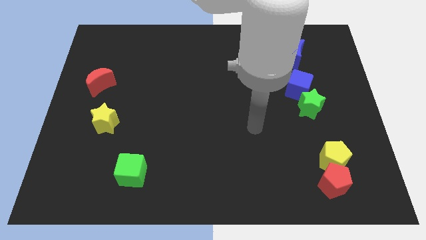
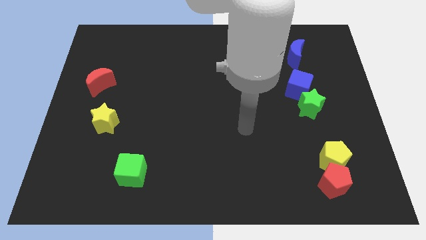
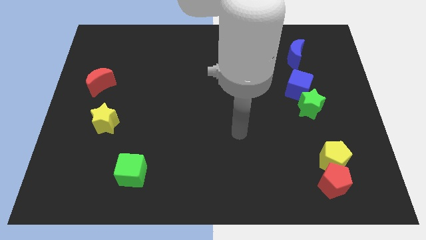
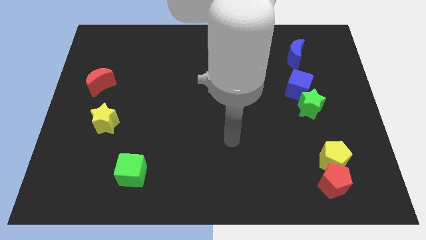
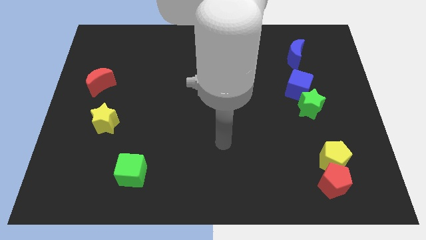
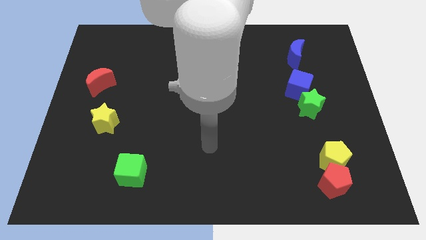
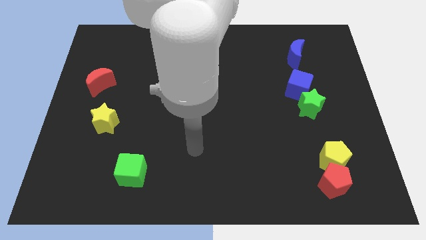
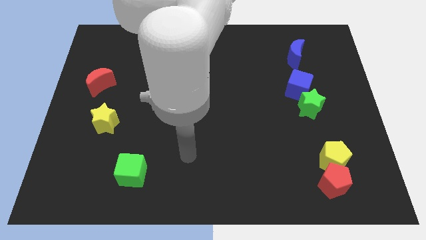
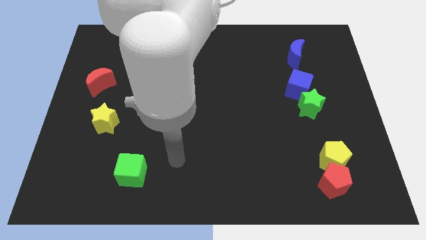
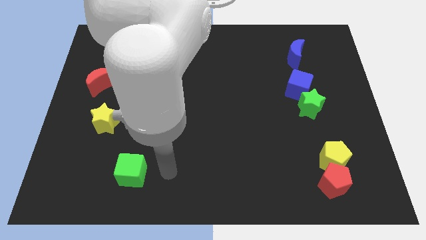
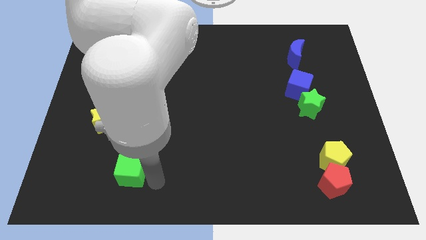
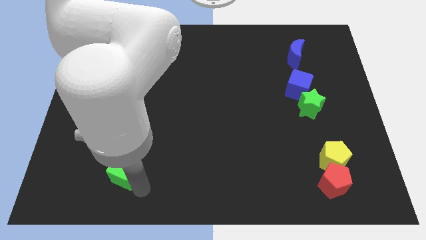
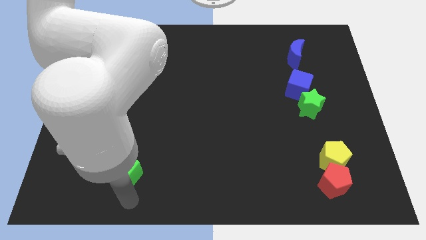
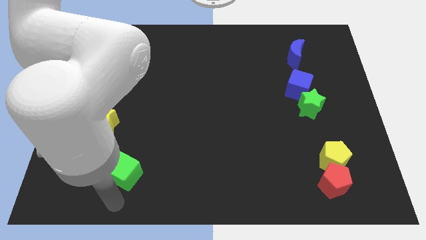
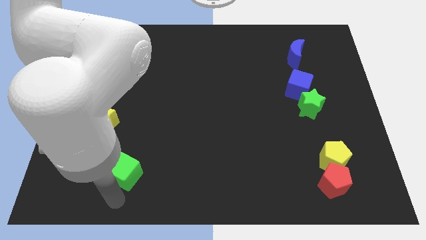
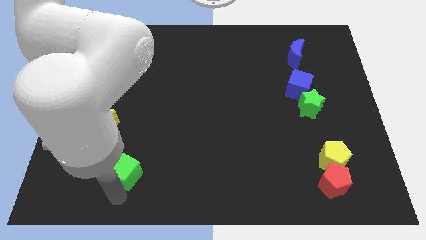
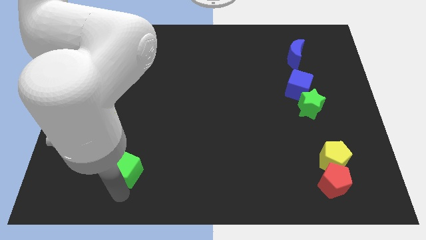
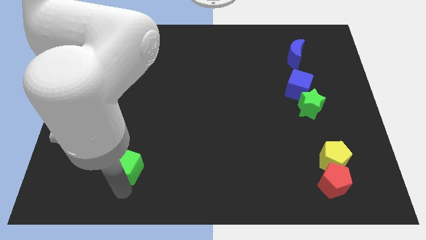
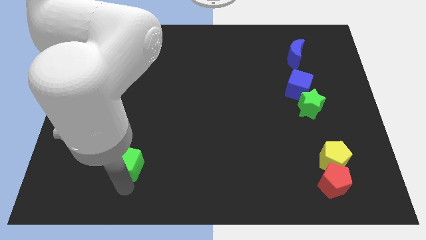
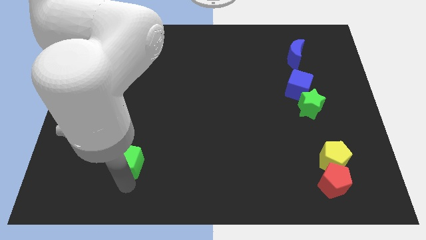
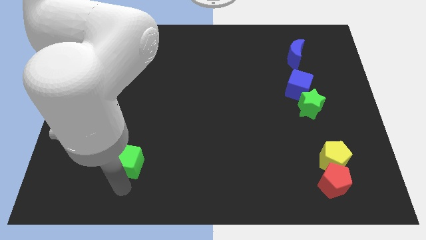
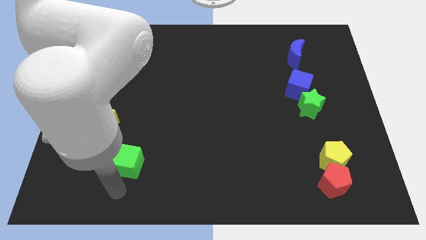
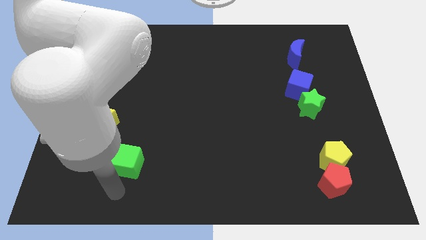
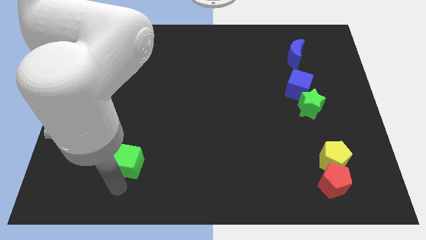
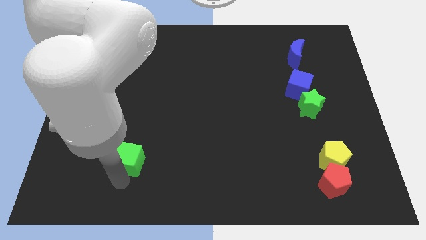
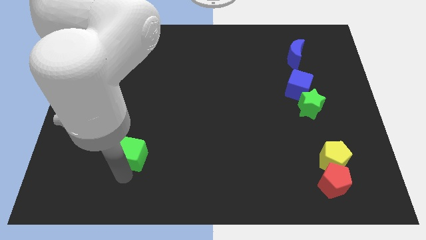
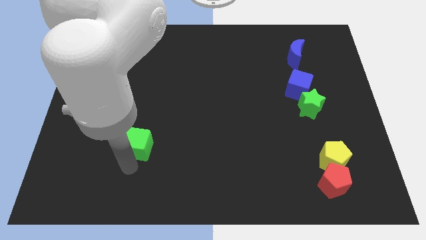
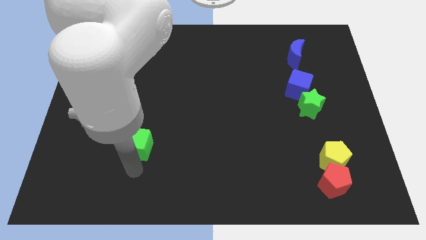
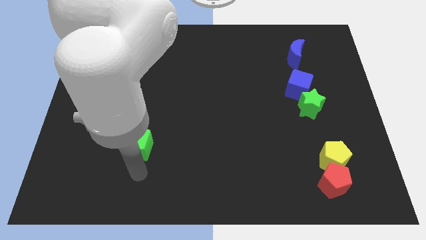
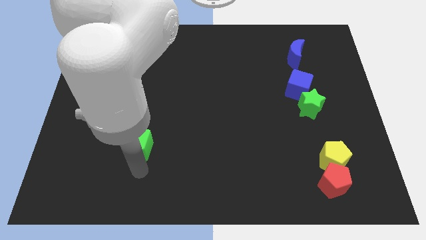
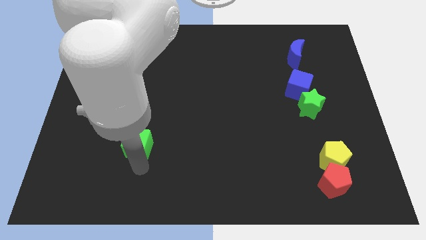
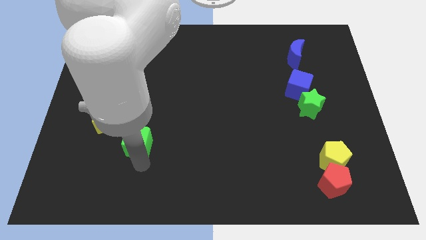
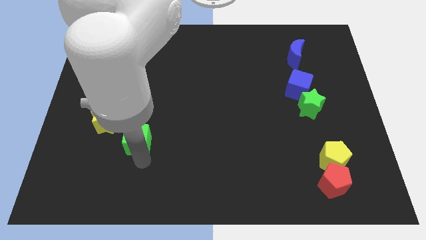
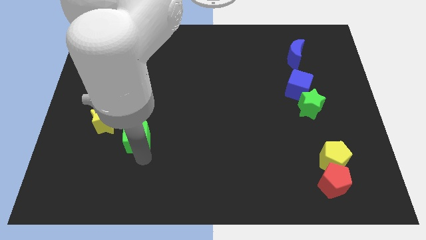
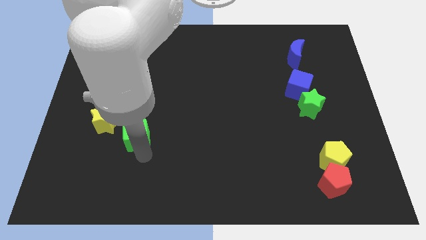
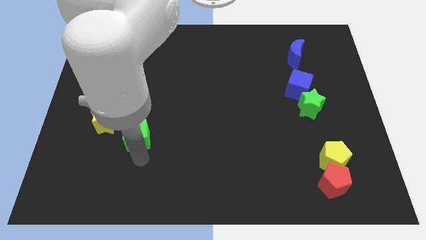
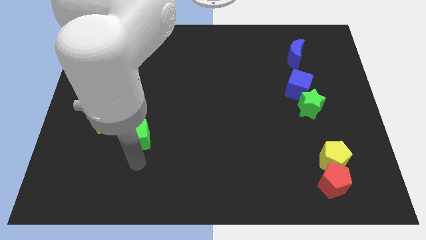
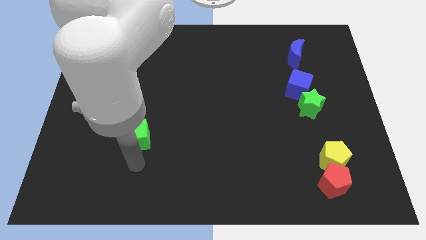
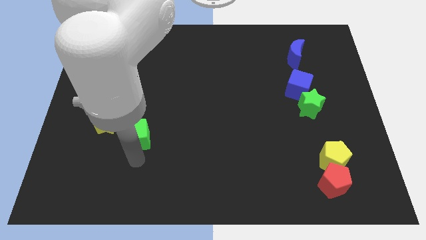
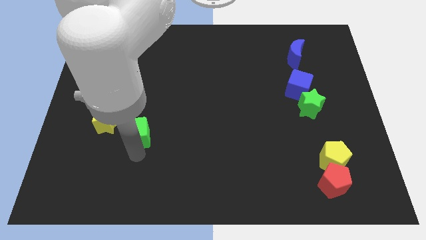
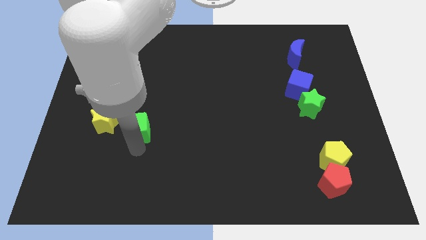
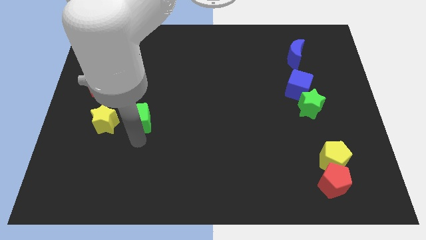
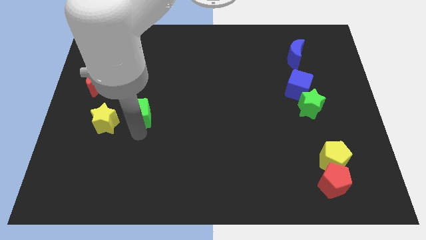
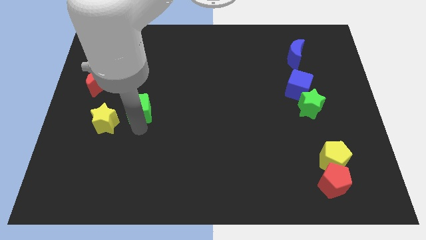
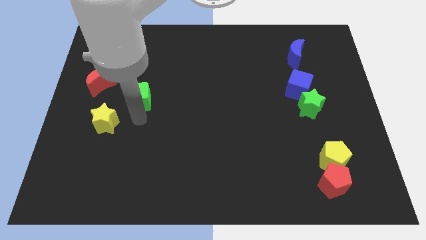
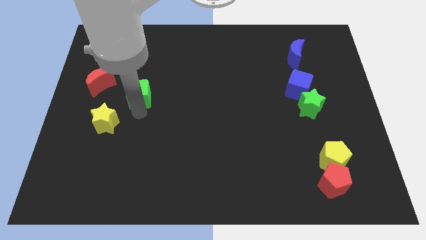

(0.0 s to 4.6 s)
slide the green cube upwards

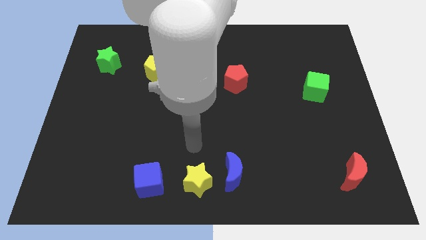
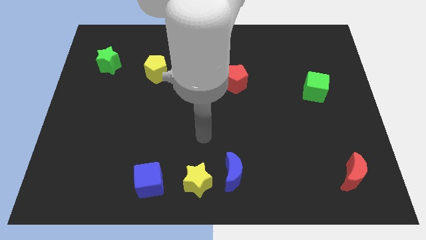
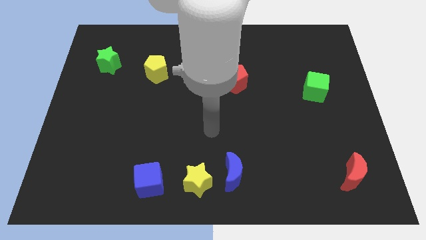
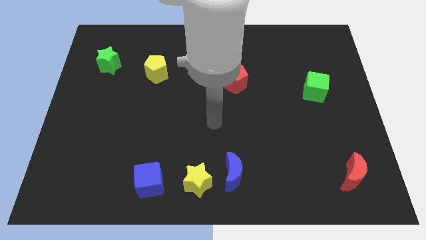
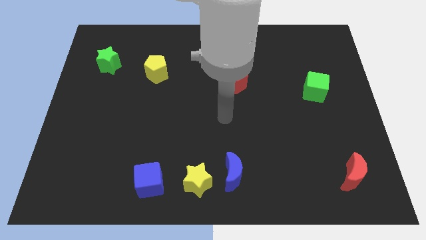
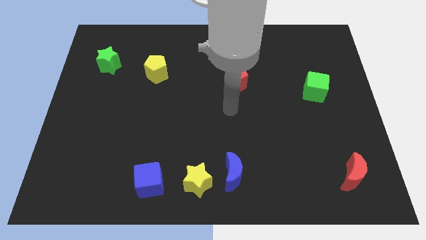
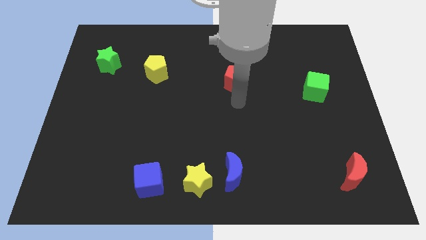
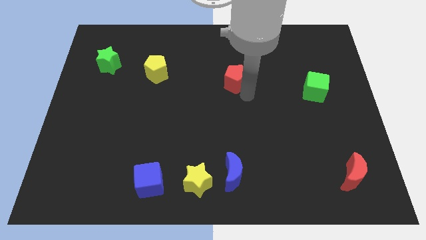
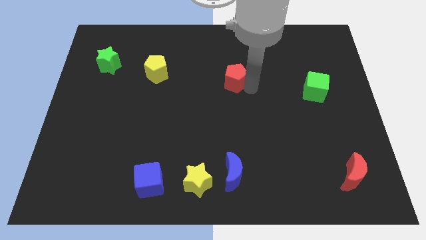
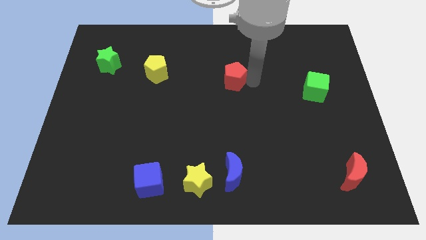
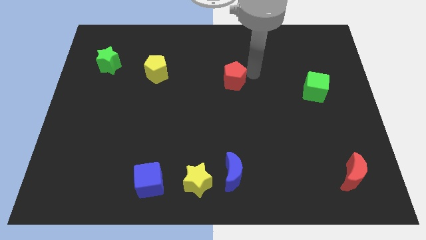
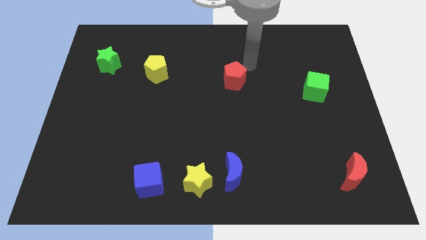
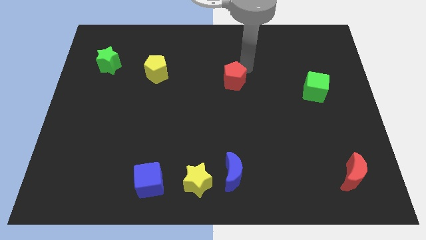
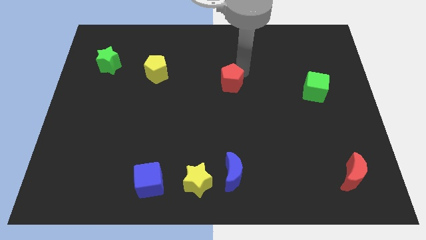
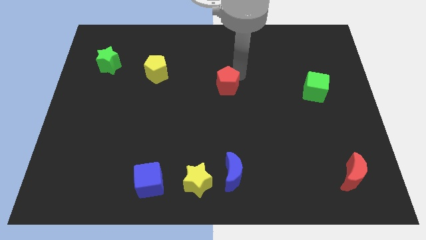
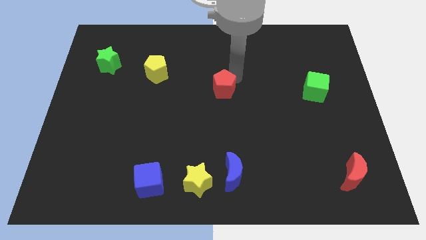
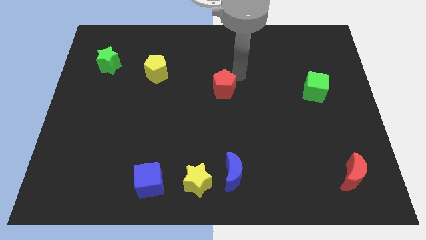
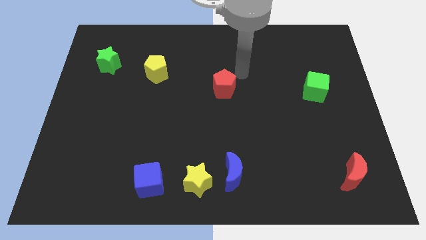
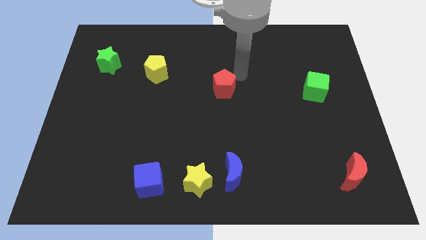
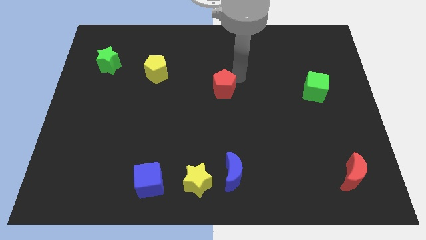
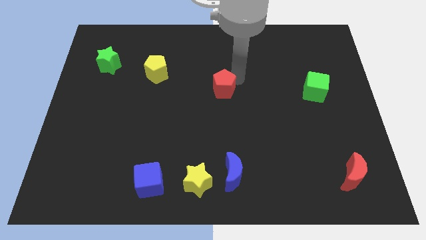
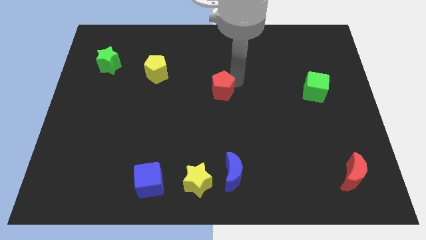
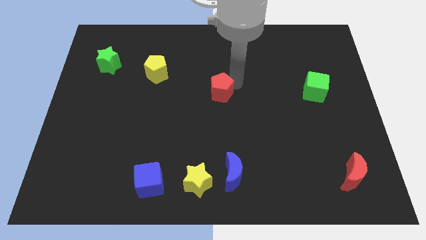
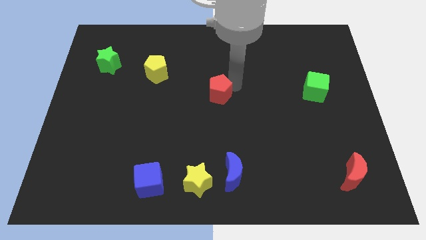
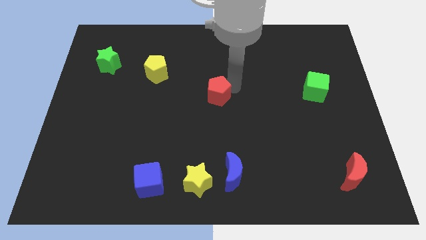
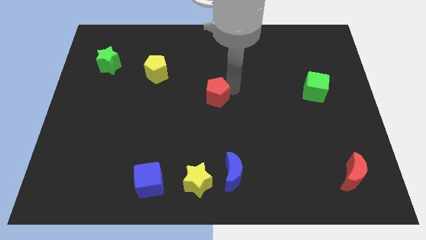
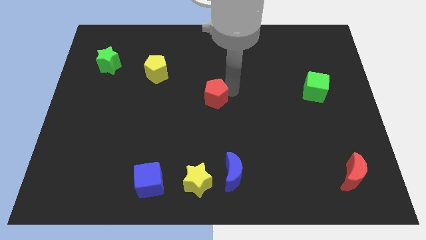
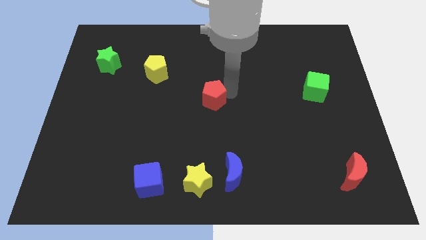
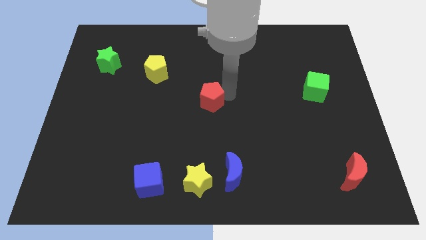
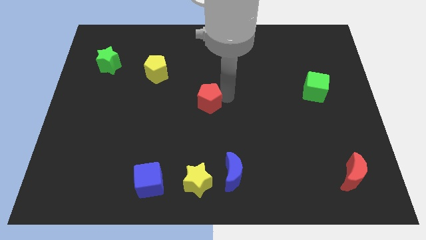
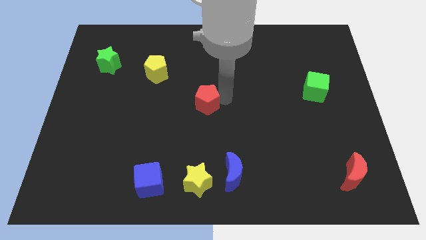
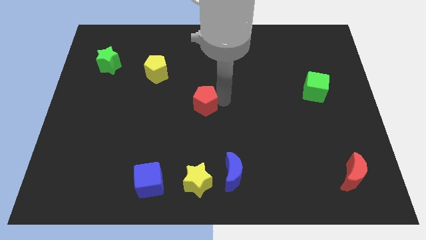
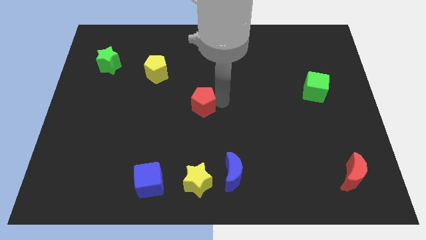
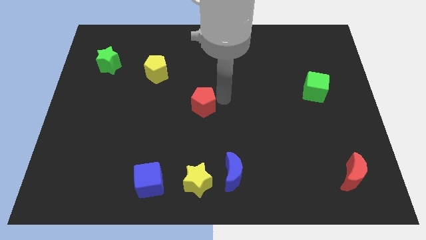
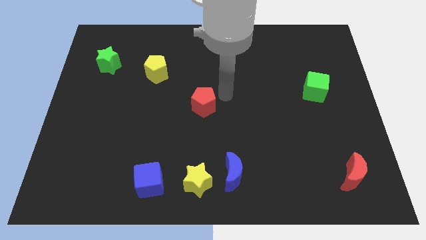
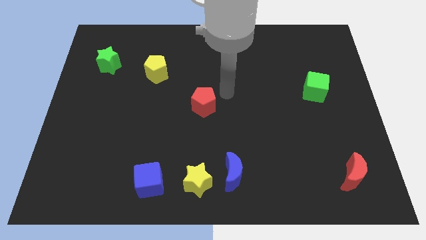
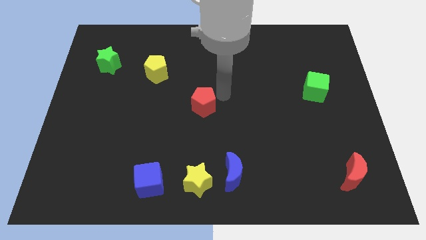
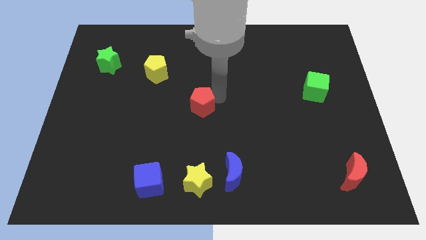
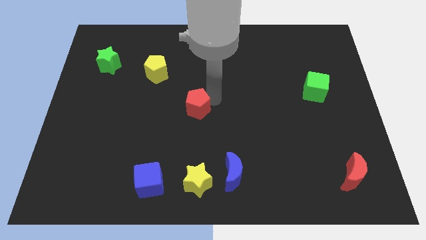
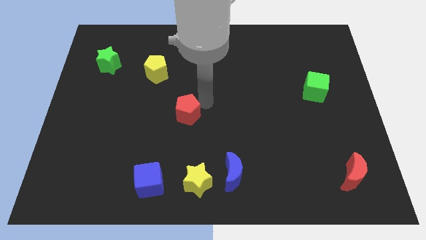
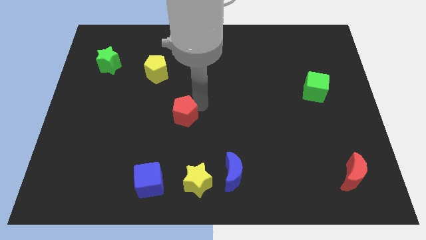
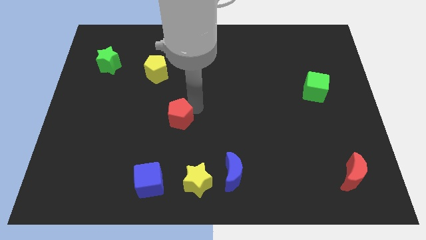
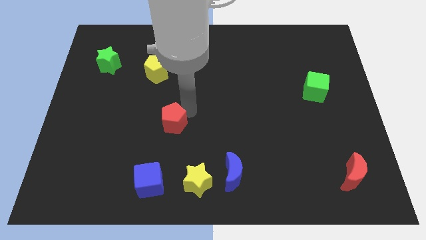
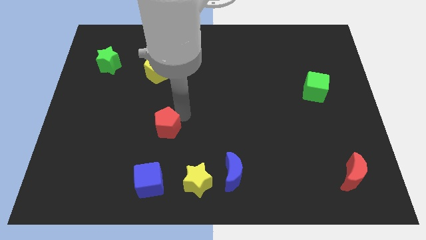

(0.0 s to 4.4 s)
move the red pentagon downwards and left
